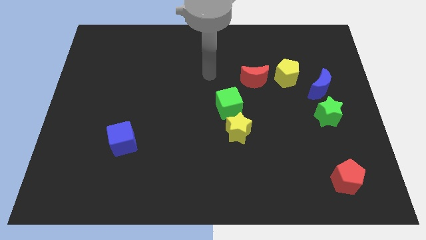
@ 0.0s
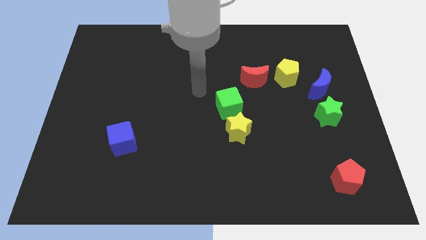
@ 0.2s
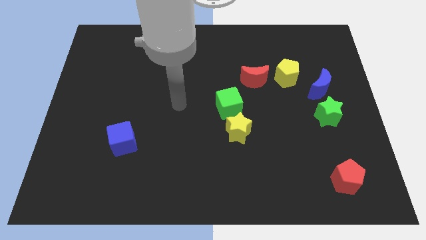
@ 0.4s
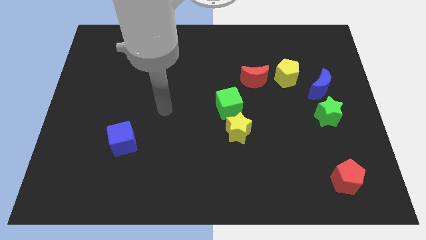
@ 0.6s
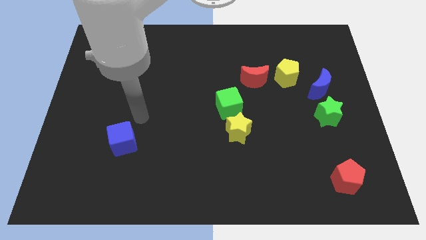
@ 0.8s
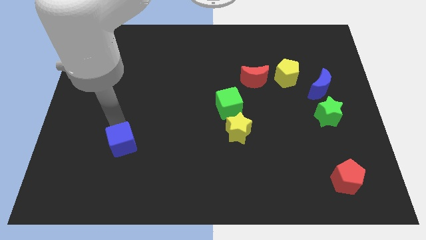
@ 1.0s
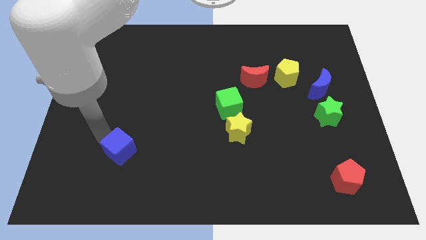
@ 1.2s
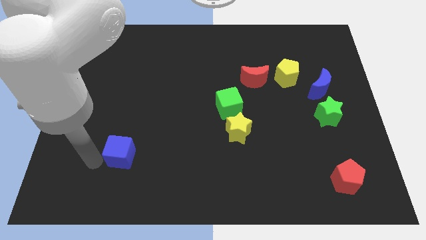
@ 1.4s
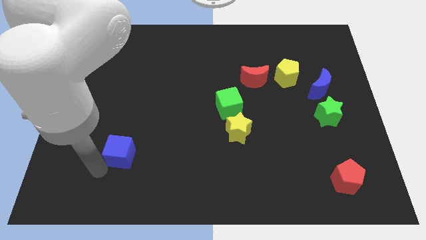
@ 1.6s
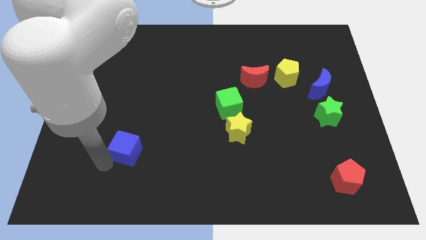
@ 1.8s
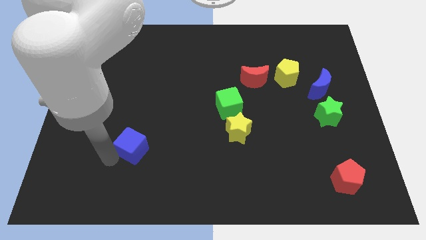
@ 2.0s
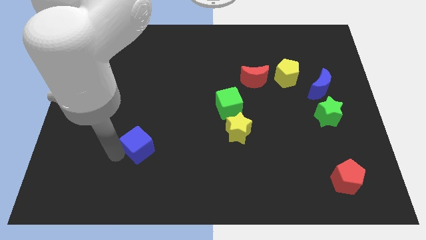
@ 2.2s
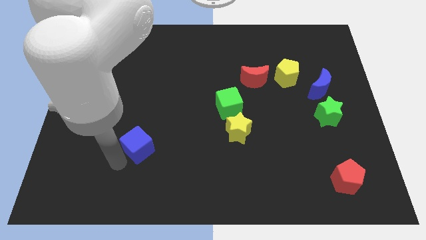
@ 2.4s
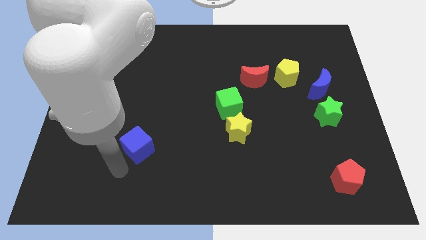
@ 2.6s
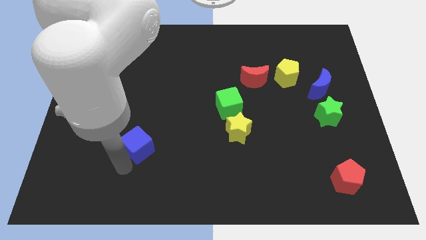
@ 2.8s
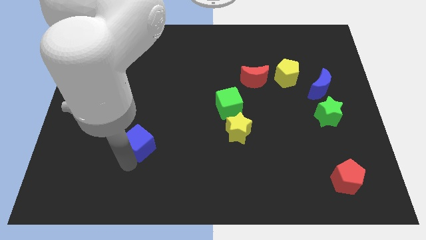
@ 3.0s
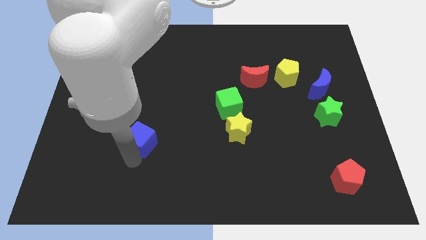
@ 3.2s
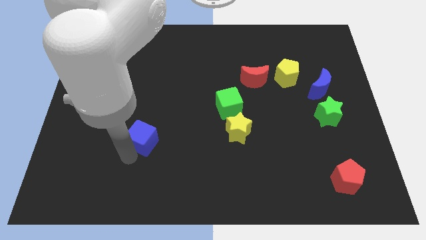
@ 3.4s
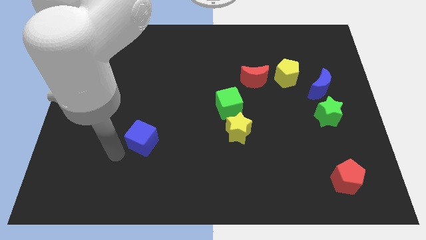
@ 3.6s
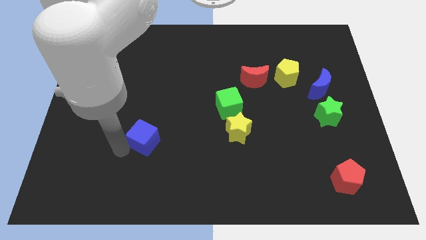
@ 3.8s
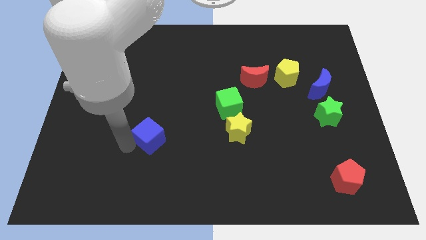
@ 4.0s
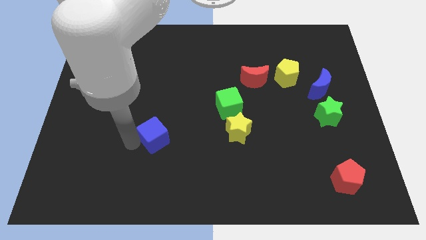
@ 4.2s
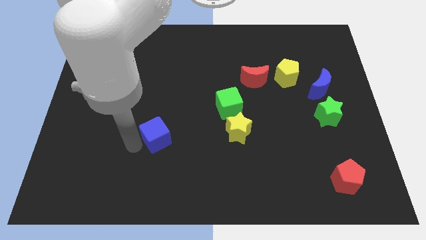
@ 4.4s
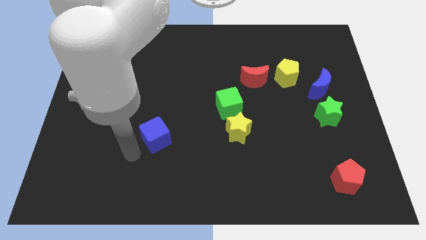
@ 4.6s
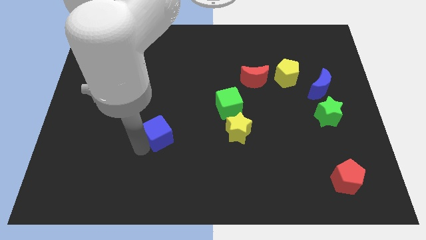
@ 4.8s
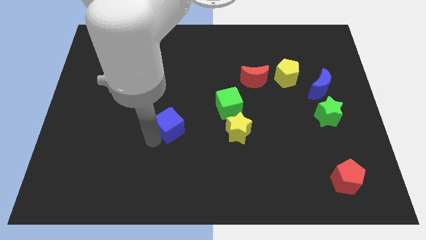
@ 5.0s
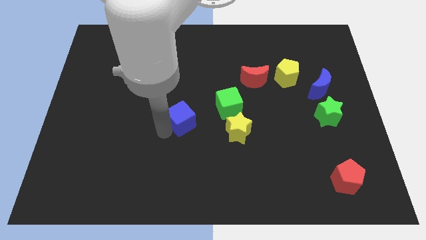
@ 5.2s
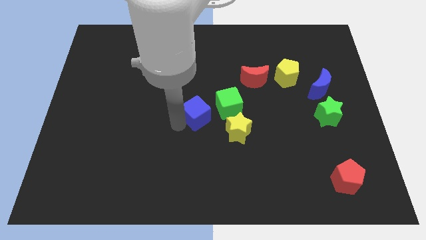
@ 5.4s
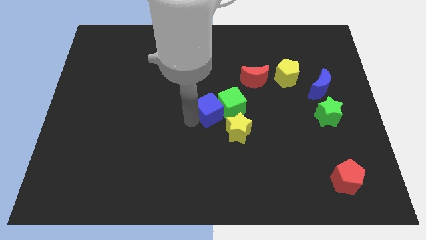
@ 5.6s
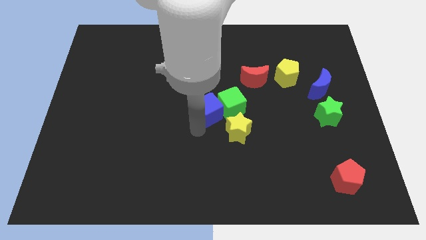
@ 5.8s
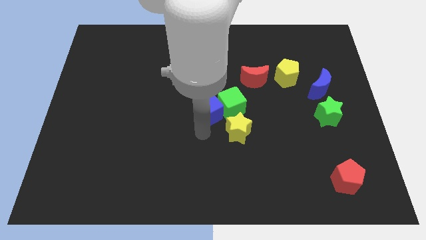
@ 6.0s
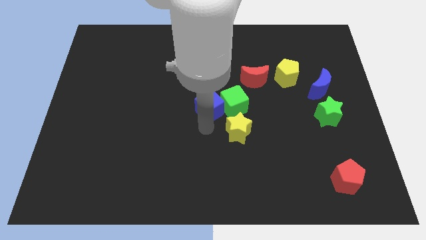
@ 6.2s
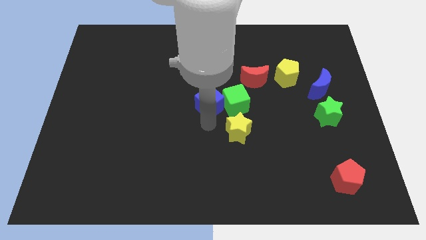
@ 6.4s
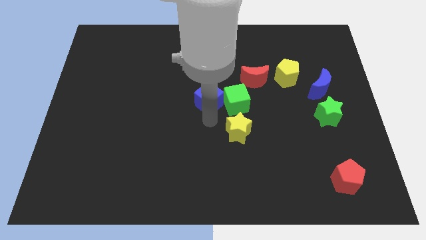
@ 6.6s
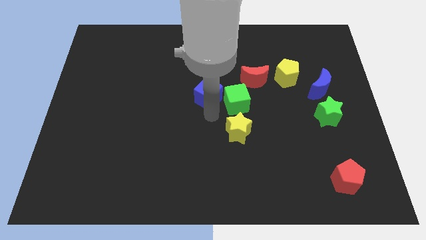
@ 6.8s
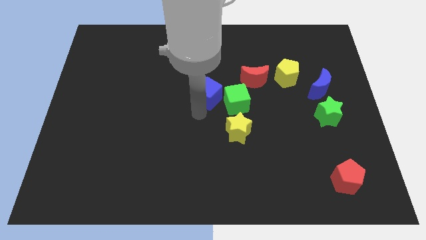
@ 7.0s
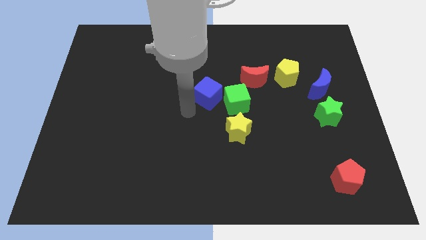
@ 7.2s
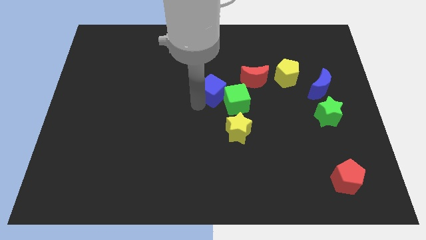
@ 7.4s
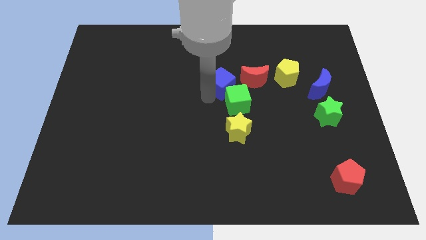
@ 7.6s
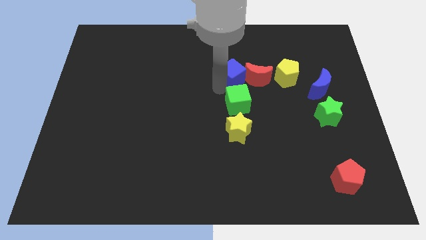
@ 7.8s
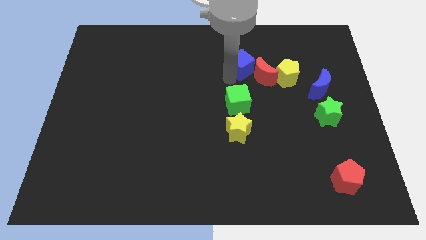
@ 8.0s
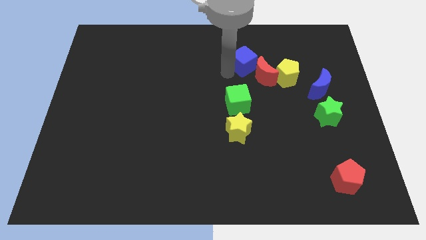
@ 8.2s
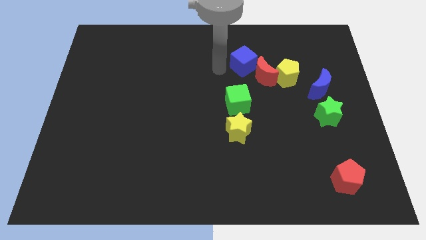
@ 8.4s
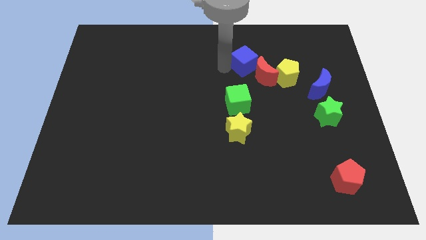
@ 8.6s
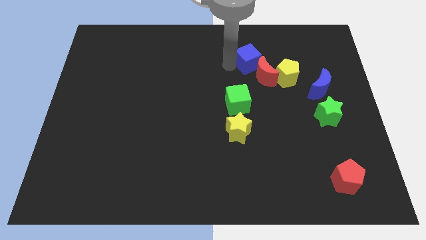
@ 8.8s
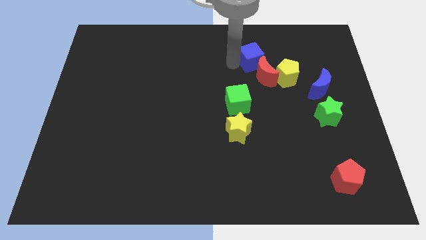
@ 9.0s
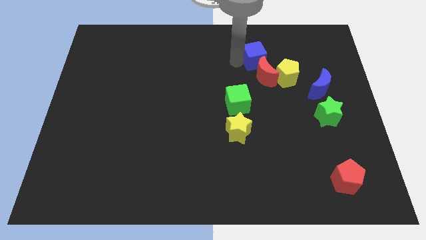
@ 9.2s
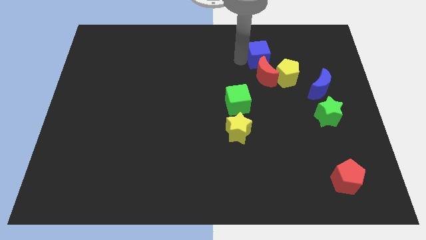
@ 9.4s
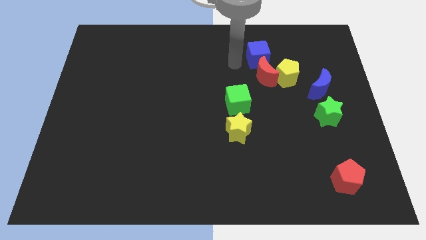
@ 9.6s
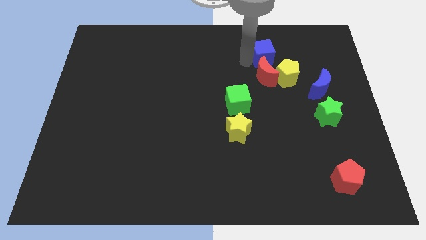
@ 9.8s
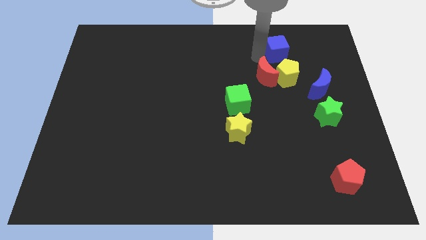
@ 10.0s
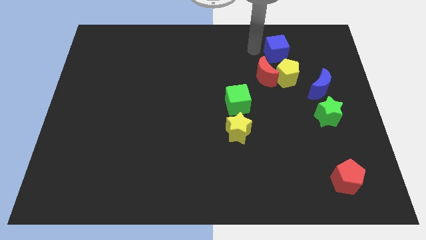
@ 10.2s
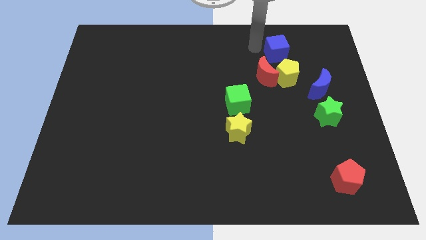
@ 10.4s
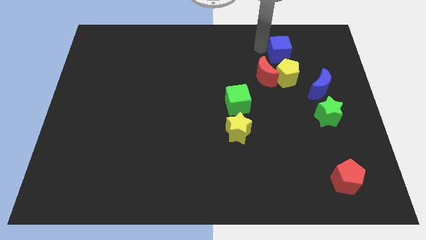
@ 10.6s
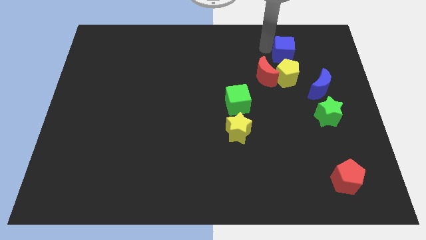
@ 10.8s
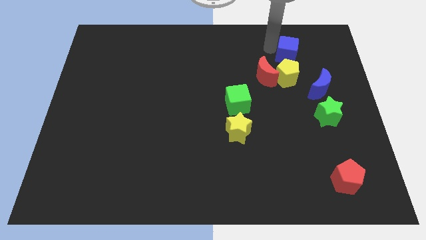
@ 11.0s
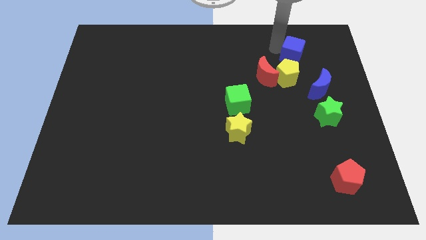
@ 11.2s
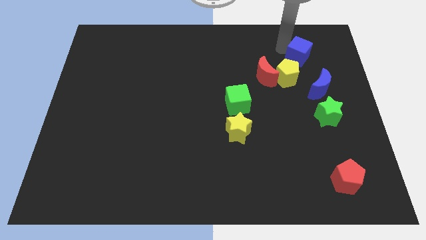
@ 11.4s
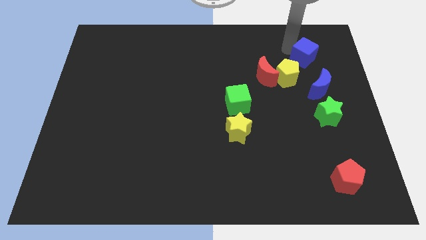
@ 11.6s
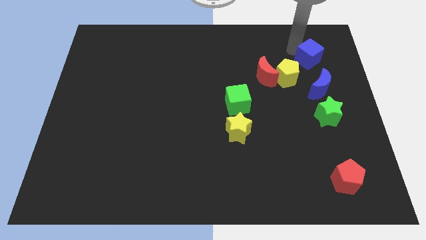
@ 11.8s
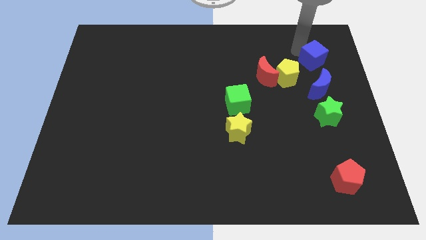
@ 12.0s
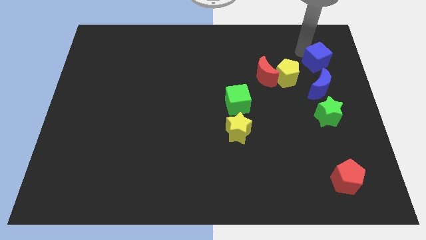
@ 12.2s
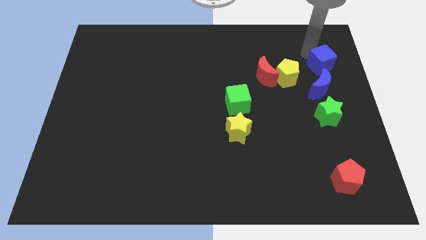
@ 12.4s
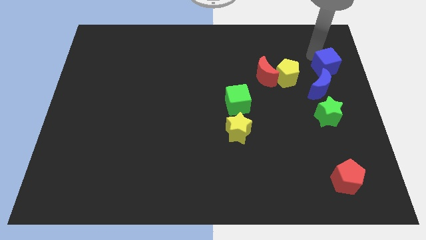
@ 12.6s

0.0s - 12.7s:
slide the blue cube to the top of the green star
